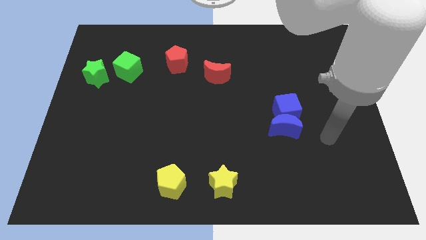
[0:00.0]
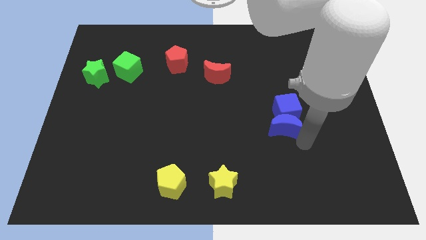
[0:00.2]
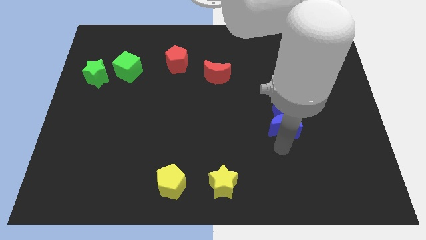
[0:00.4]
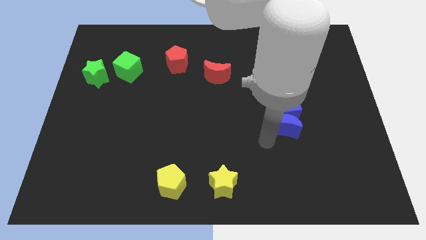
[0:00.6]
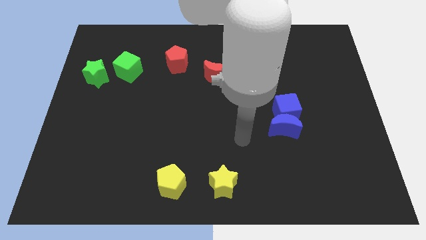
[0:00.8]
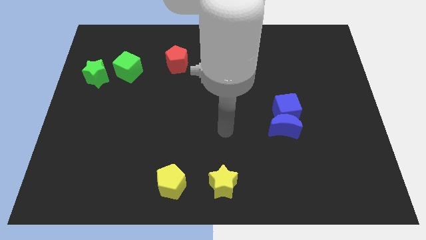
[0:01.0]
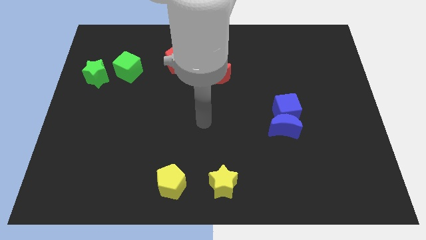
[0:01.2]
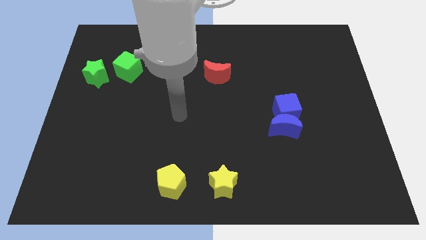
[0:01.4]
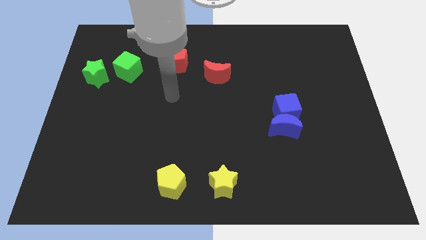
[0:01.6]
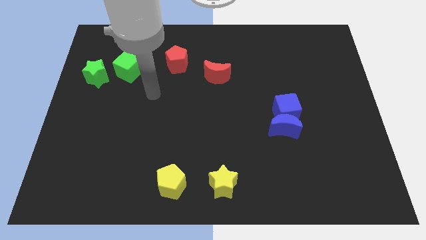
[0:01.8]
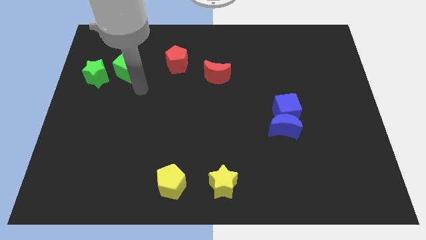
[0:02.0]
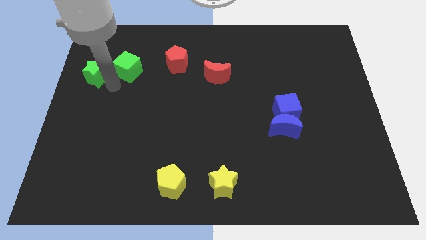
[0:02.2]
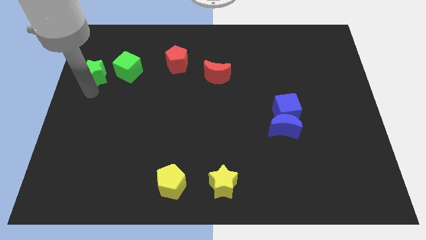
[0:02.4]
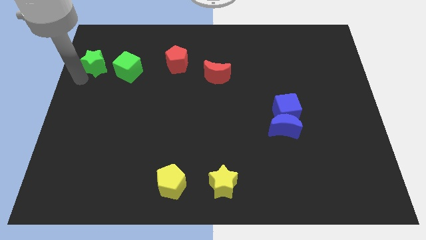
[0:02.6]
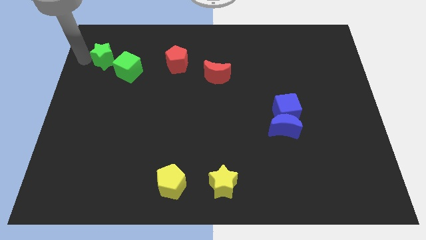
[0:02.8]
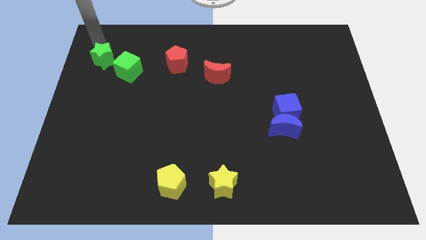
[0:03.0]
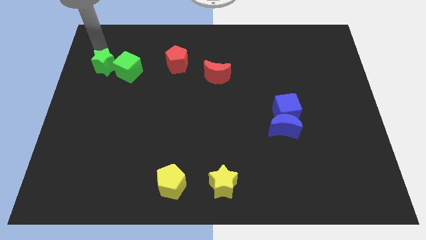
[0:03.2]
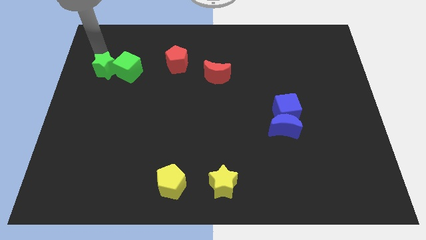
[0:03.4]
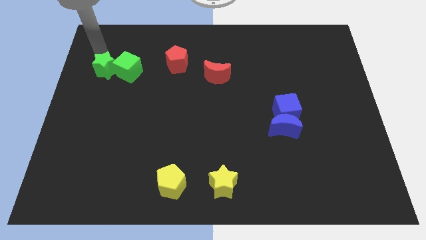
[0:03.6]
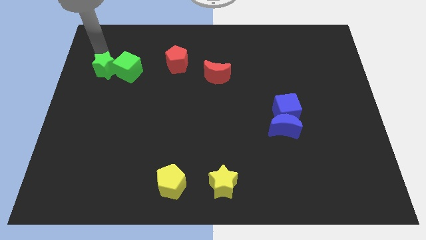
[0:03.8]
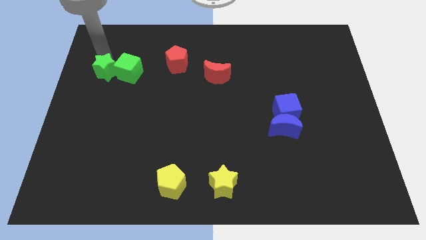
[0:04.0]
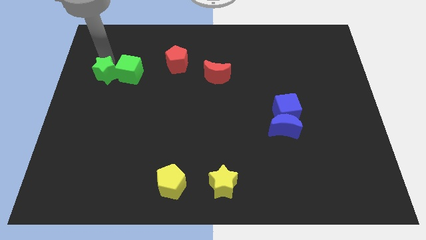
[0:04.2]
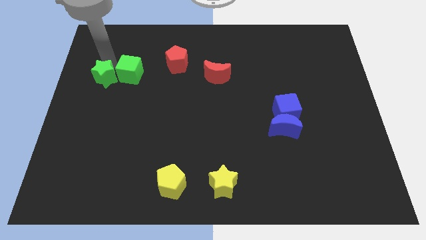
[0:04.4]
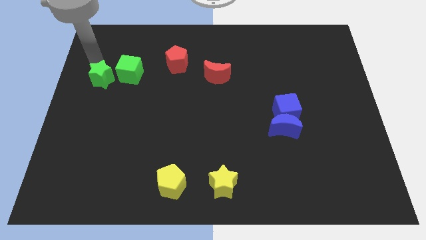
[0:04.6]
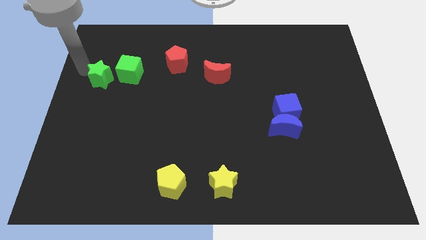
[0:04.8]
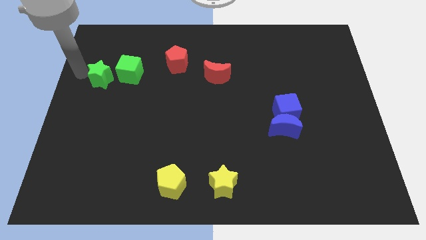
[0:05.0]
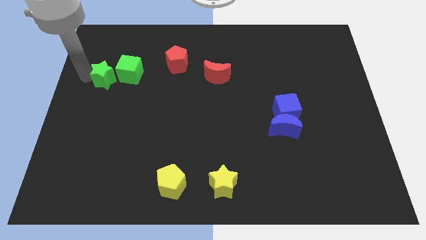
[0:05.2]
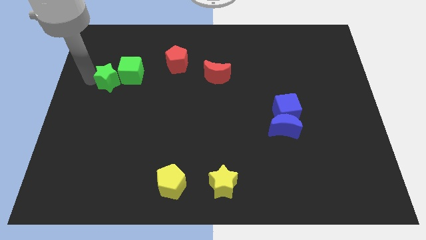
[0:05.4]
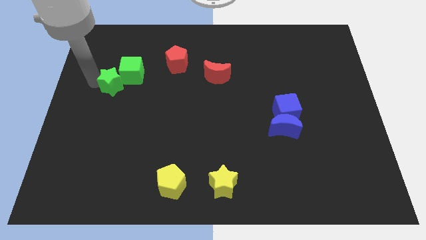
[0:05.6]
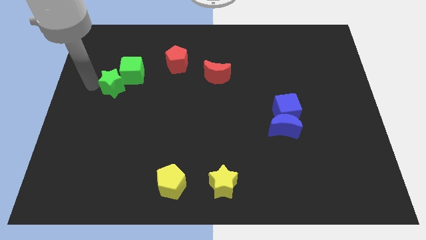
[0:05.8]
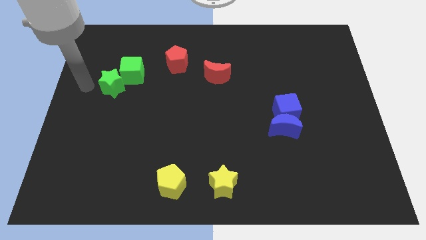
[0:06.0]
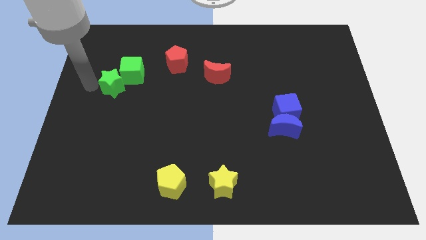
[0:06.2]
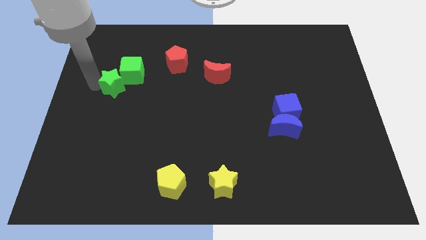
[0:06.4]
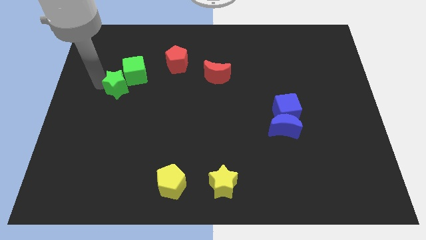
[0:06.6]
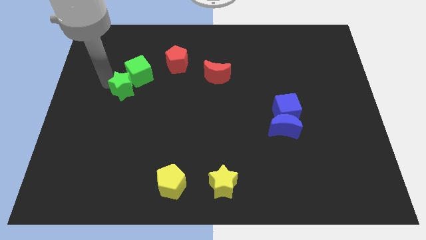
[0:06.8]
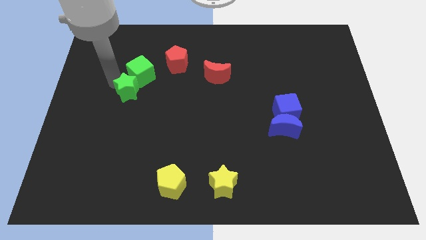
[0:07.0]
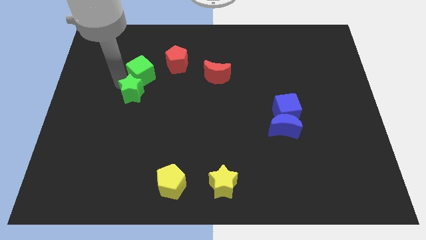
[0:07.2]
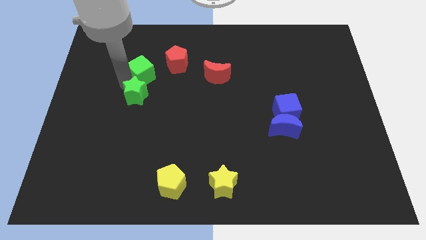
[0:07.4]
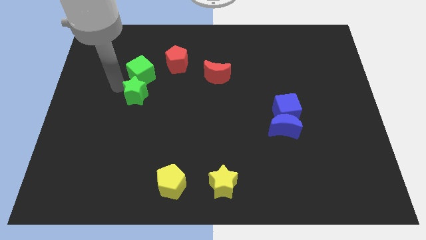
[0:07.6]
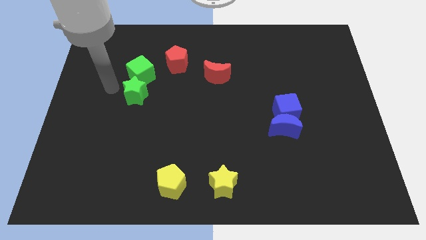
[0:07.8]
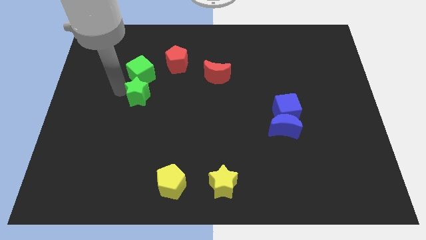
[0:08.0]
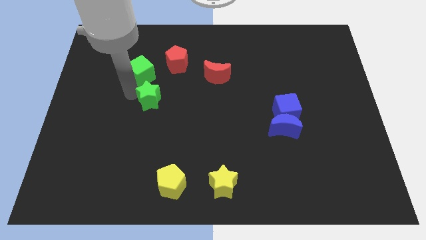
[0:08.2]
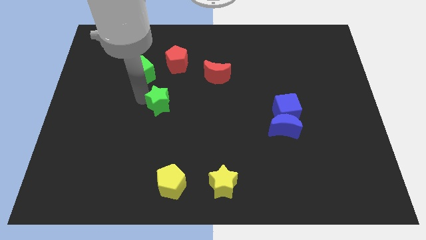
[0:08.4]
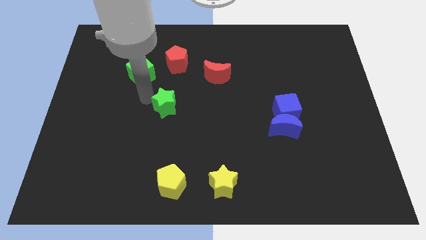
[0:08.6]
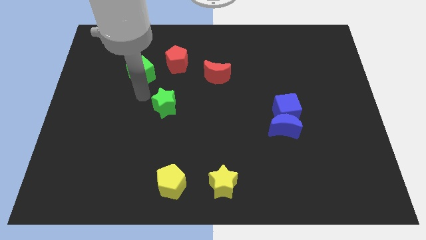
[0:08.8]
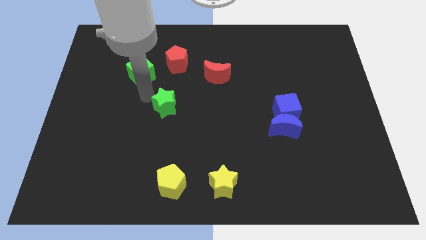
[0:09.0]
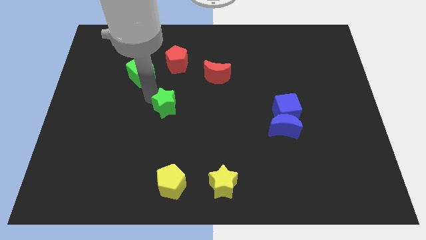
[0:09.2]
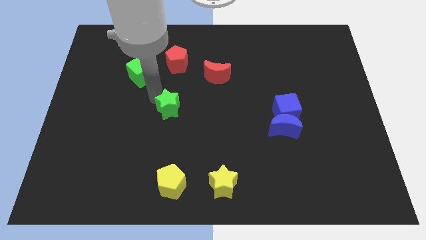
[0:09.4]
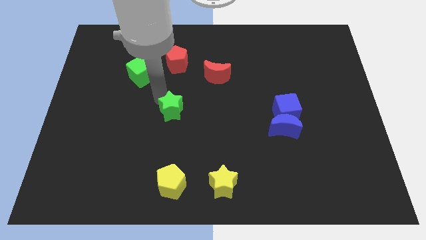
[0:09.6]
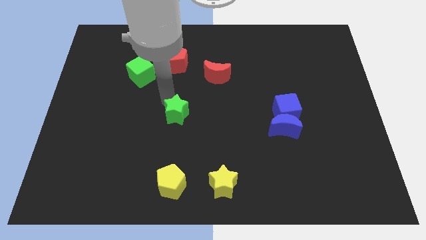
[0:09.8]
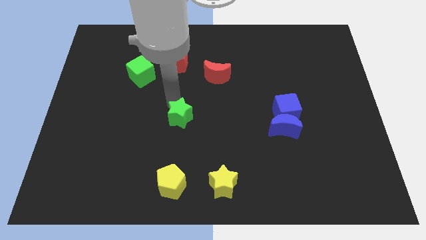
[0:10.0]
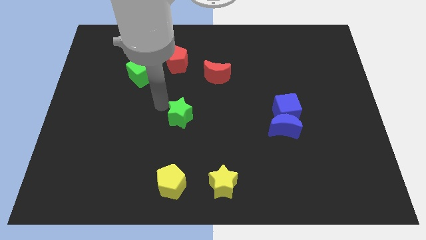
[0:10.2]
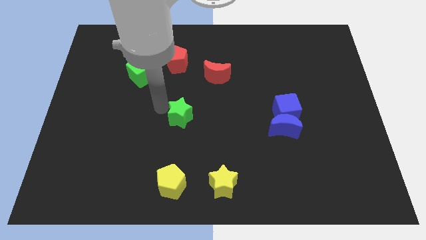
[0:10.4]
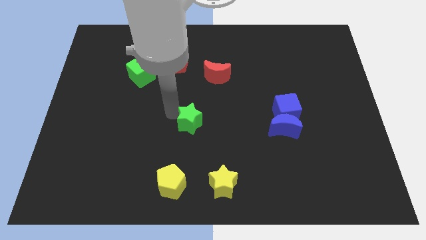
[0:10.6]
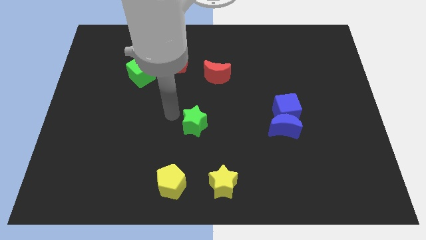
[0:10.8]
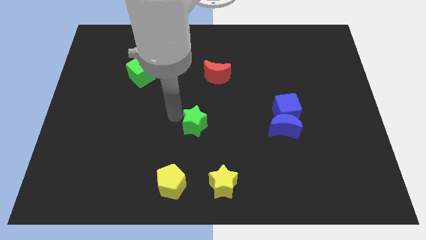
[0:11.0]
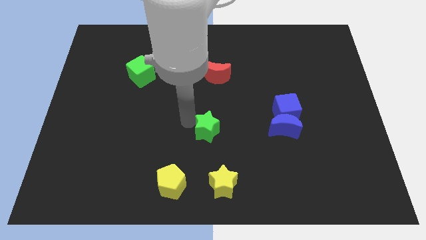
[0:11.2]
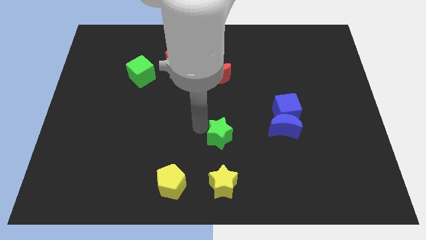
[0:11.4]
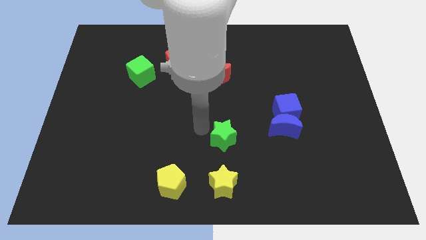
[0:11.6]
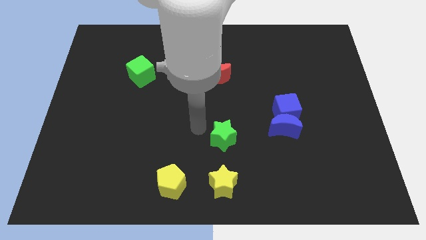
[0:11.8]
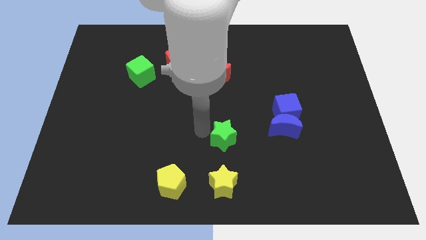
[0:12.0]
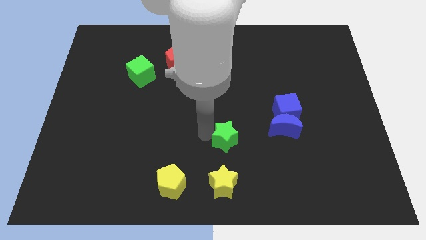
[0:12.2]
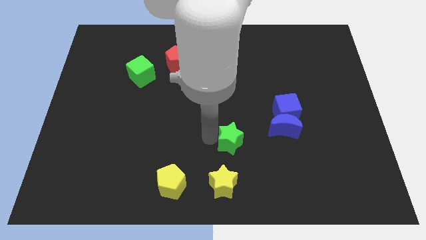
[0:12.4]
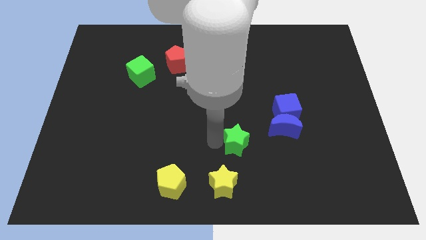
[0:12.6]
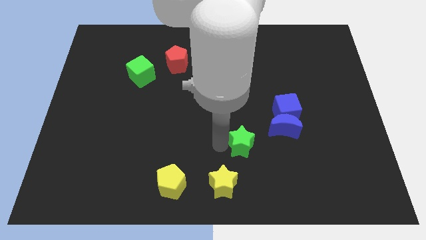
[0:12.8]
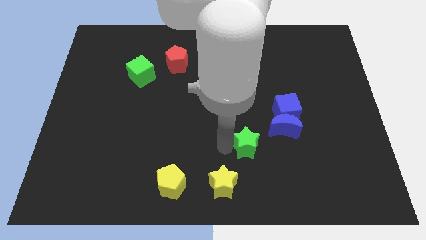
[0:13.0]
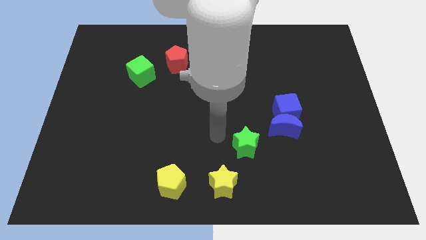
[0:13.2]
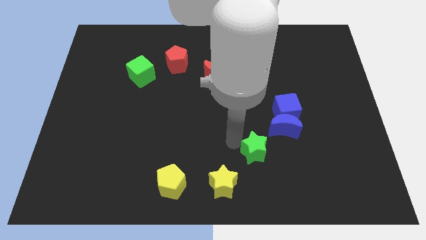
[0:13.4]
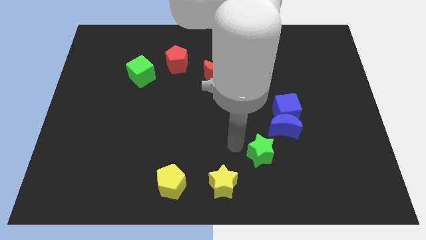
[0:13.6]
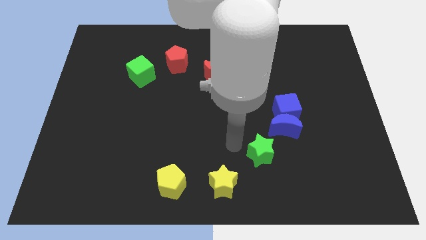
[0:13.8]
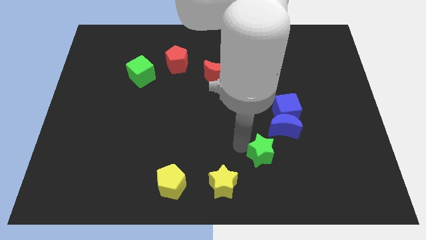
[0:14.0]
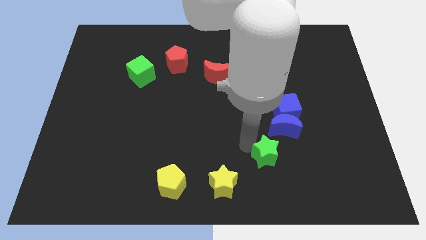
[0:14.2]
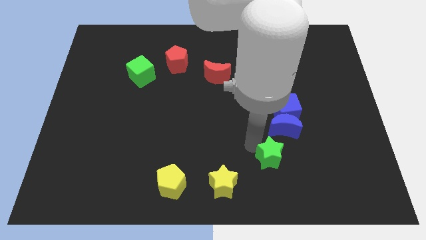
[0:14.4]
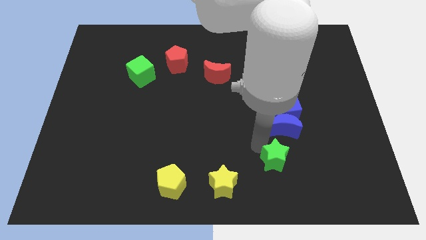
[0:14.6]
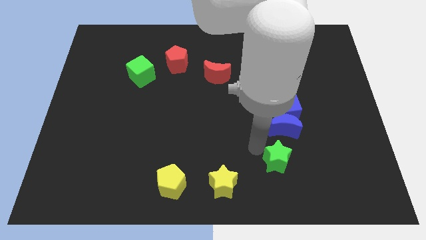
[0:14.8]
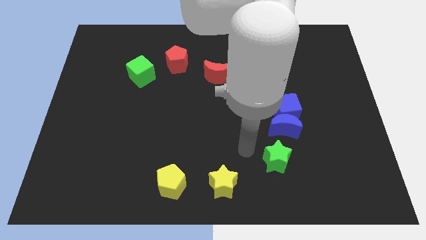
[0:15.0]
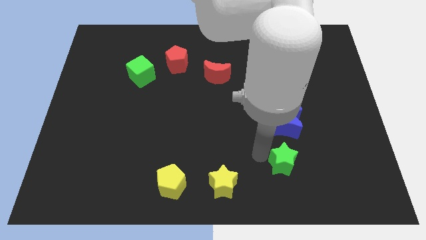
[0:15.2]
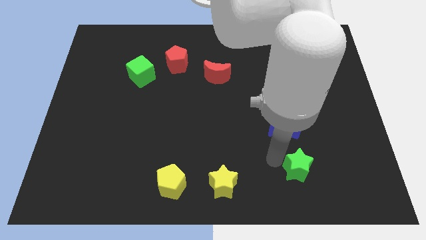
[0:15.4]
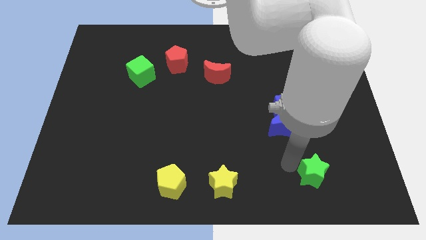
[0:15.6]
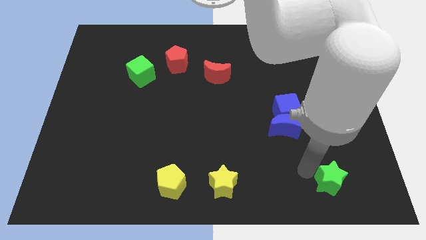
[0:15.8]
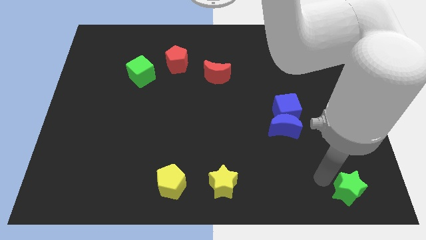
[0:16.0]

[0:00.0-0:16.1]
push the green star to the bottom right corner
